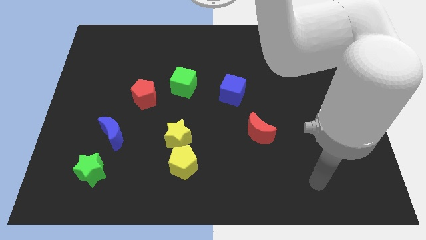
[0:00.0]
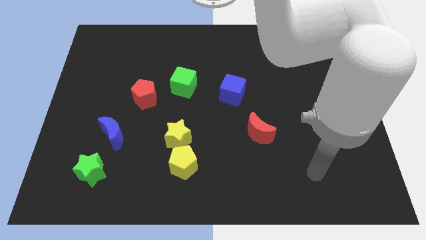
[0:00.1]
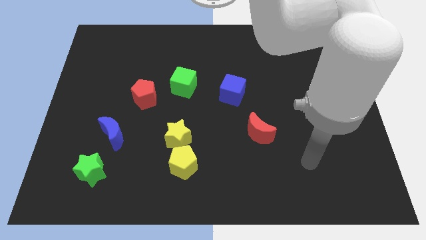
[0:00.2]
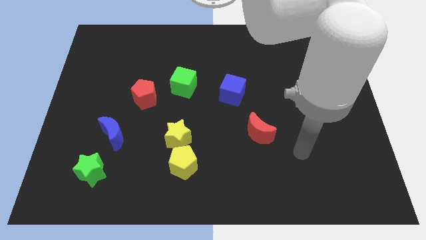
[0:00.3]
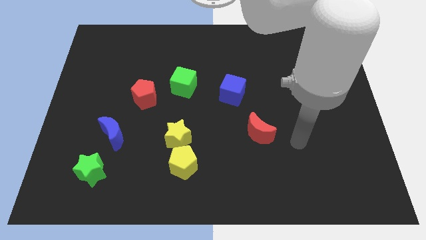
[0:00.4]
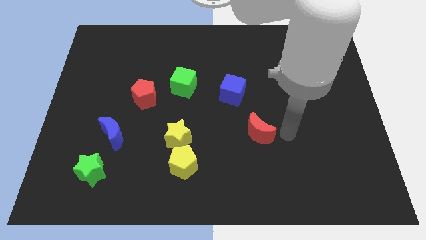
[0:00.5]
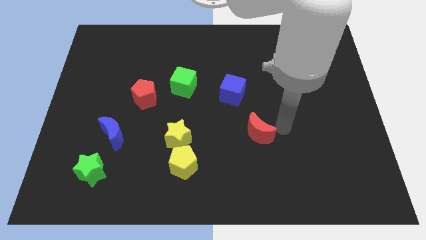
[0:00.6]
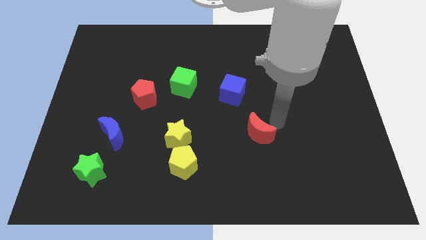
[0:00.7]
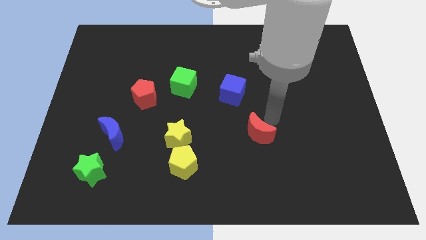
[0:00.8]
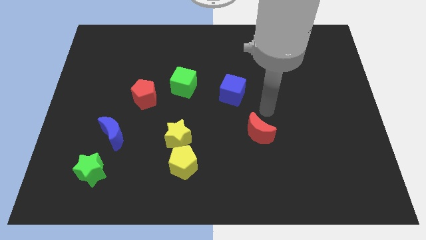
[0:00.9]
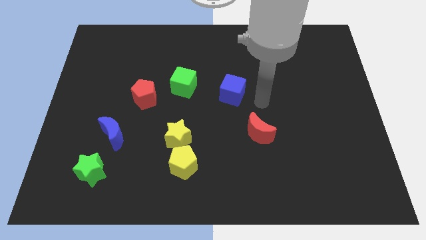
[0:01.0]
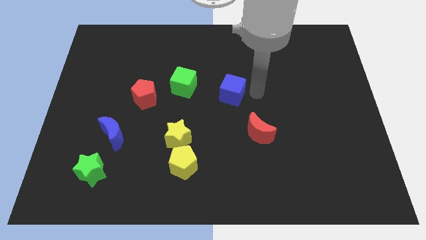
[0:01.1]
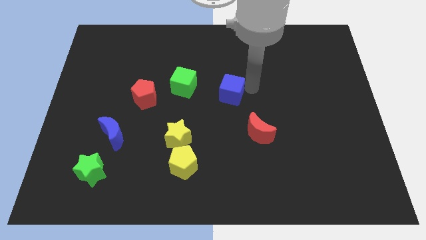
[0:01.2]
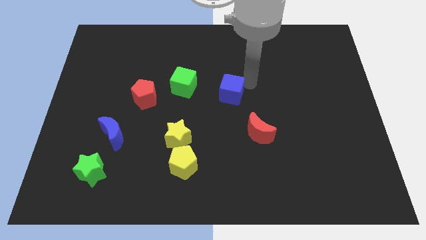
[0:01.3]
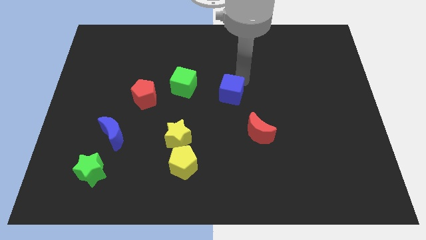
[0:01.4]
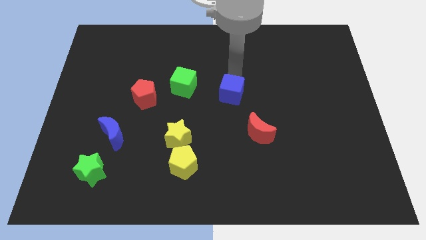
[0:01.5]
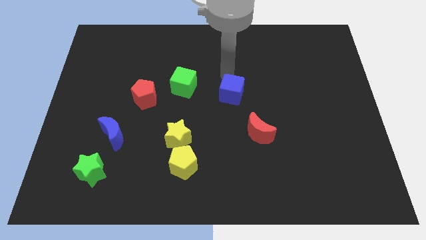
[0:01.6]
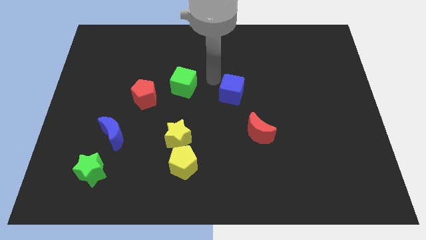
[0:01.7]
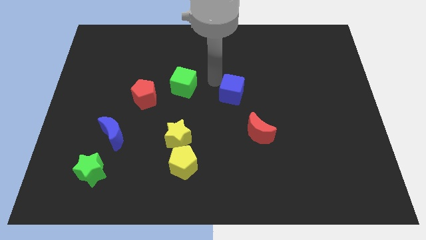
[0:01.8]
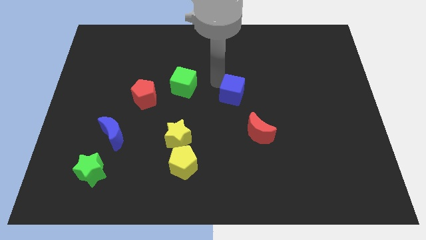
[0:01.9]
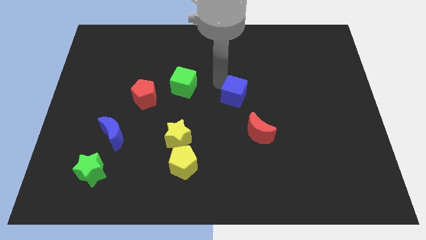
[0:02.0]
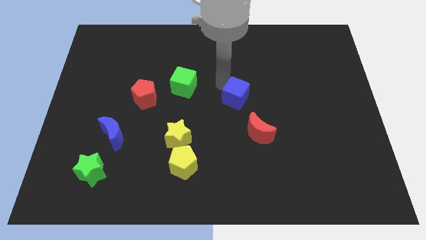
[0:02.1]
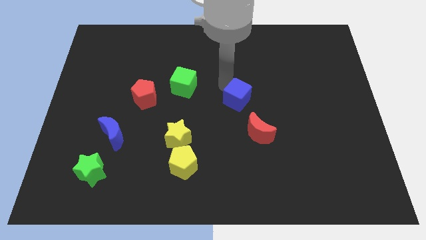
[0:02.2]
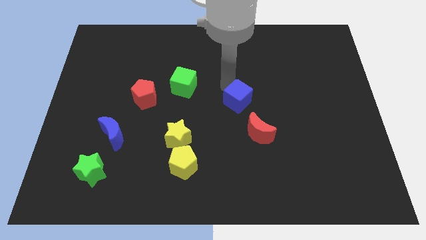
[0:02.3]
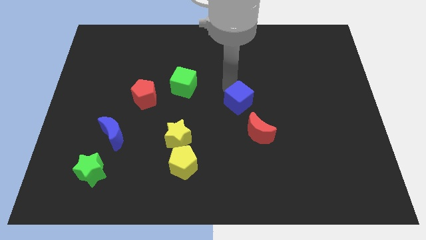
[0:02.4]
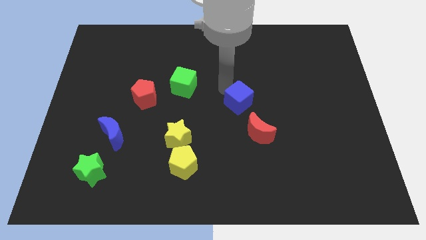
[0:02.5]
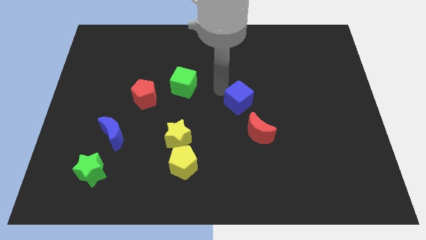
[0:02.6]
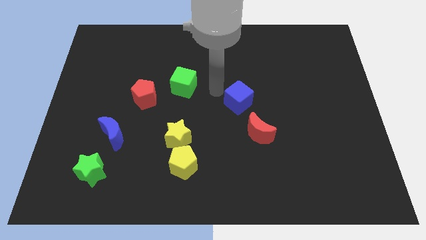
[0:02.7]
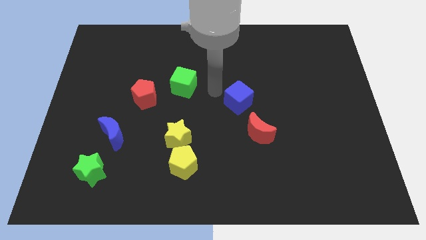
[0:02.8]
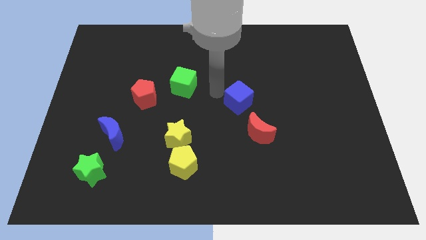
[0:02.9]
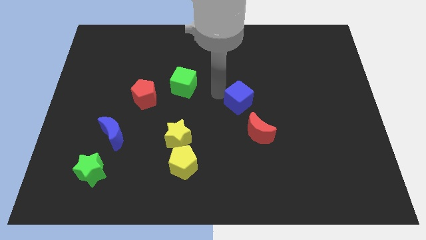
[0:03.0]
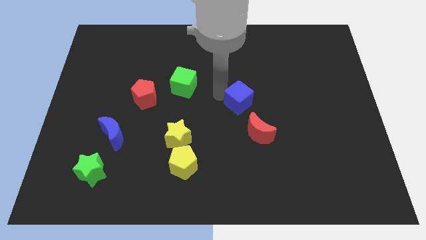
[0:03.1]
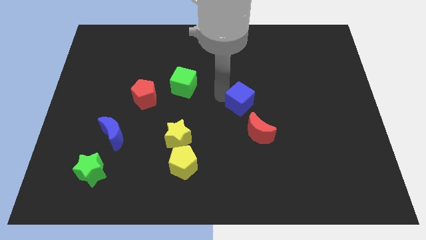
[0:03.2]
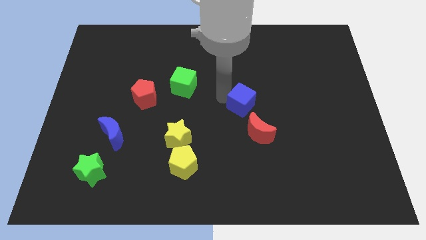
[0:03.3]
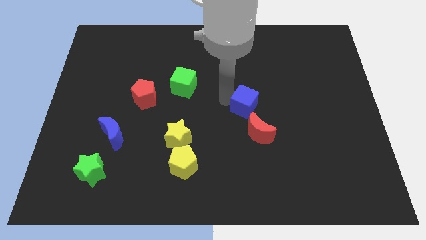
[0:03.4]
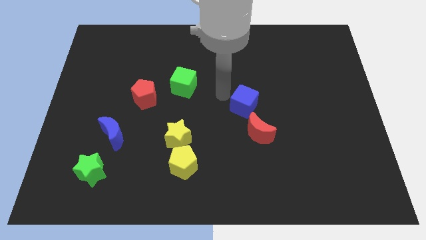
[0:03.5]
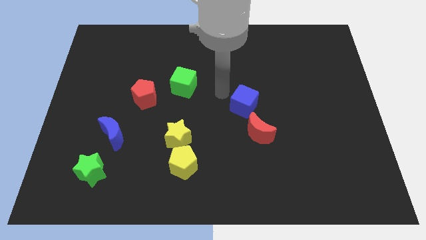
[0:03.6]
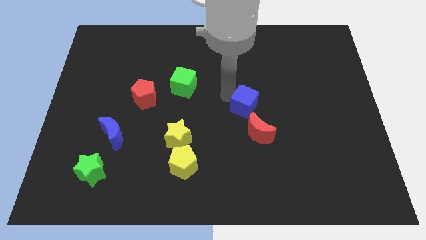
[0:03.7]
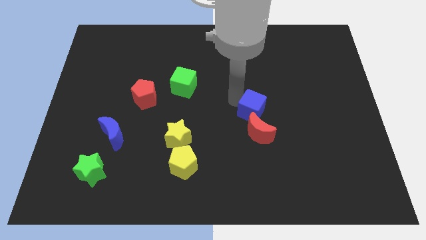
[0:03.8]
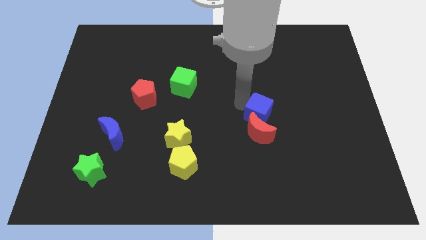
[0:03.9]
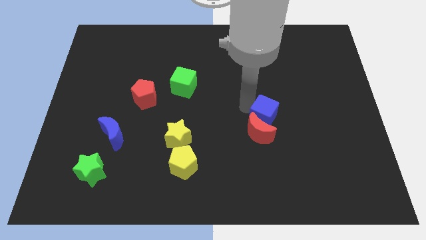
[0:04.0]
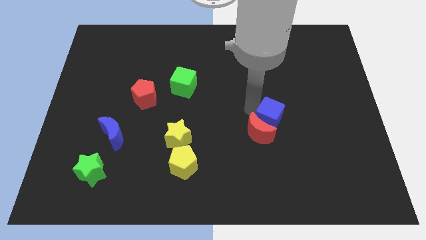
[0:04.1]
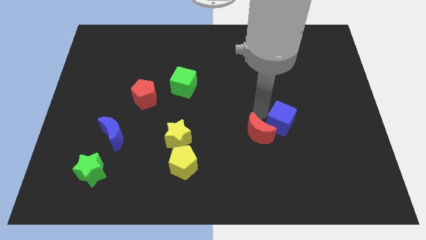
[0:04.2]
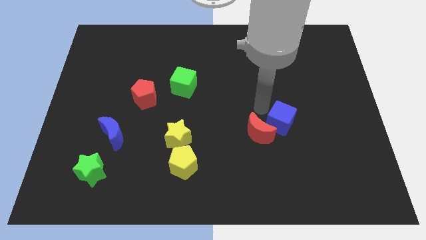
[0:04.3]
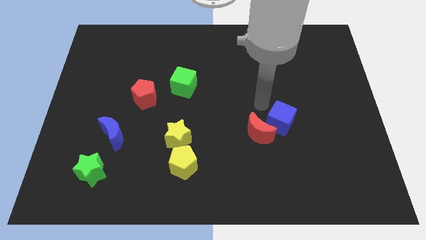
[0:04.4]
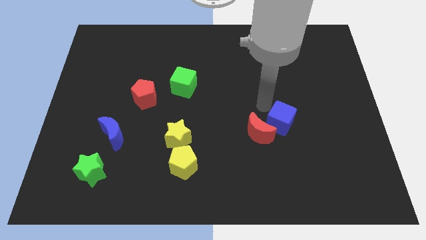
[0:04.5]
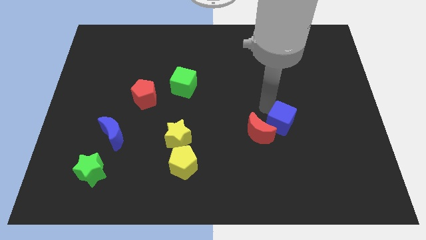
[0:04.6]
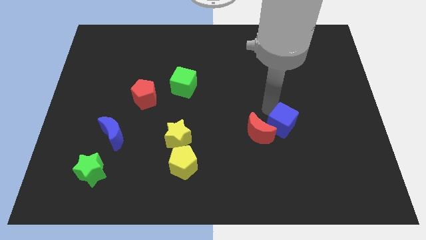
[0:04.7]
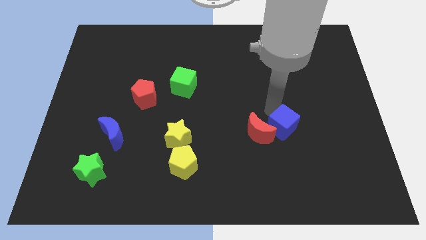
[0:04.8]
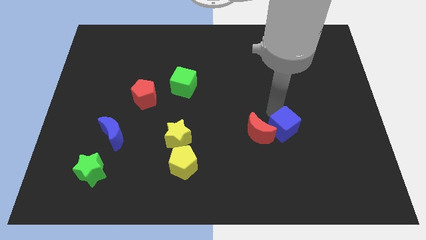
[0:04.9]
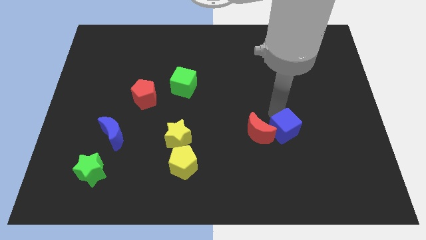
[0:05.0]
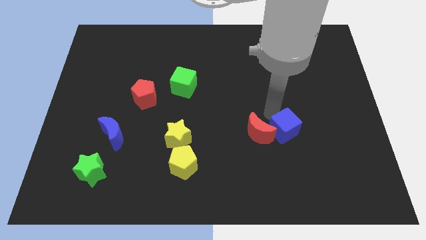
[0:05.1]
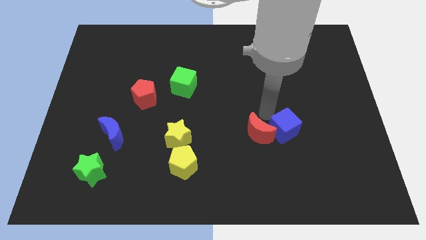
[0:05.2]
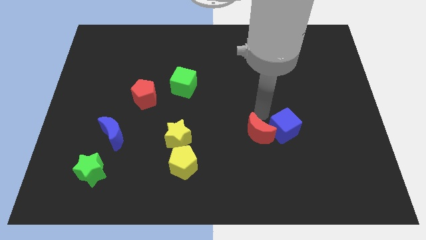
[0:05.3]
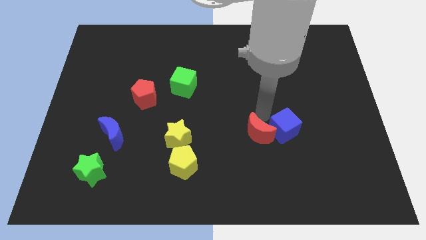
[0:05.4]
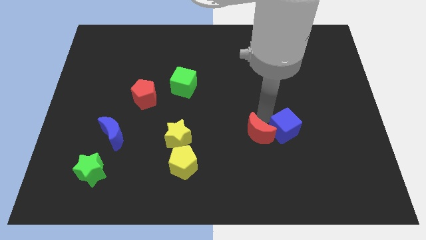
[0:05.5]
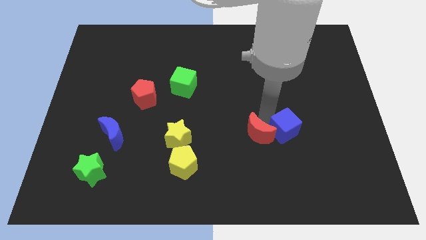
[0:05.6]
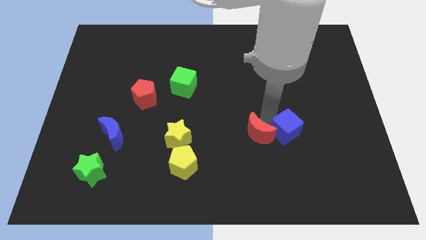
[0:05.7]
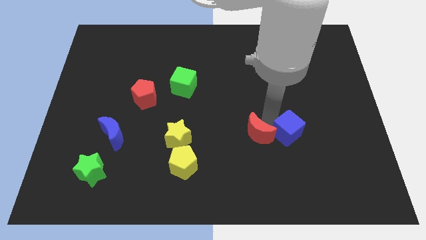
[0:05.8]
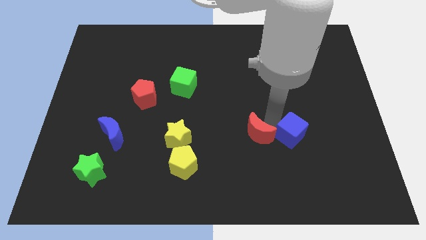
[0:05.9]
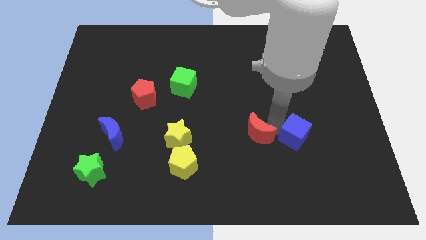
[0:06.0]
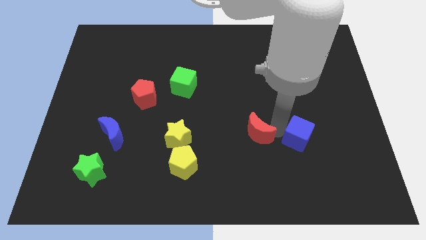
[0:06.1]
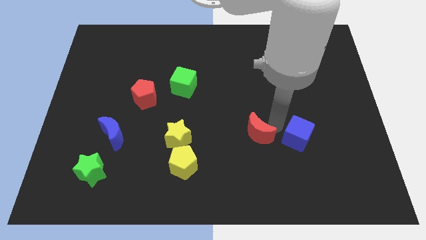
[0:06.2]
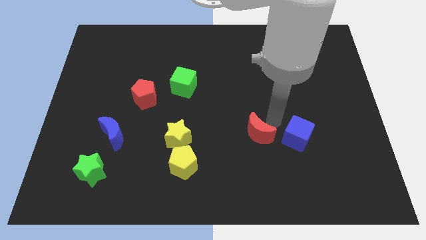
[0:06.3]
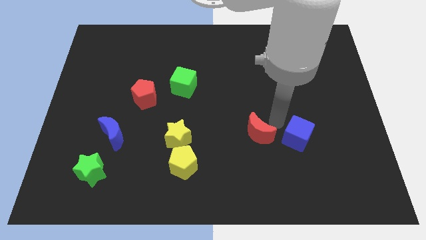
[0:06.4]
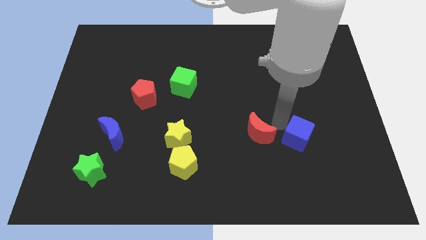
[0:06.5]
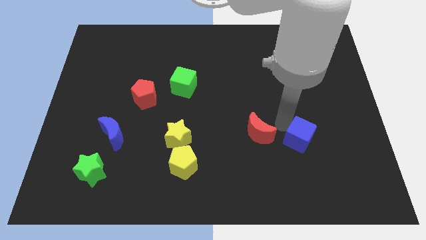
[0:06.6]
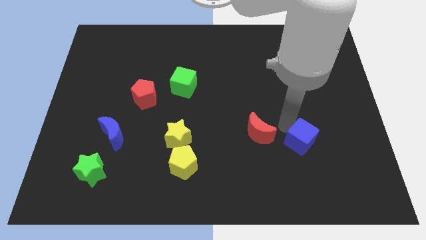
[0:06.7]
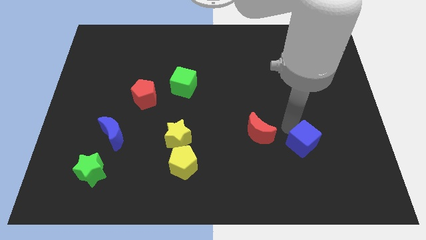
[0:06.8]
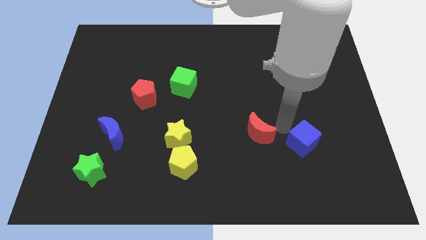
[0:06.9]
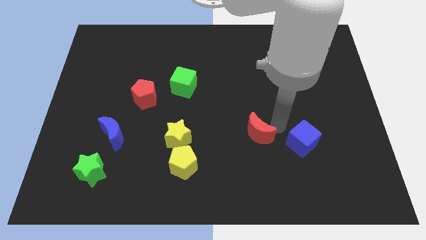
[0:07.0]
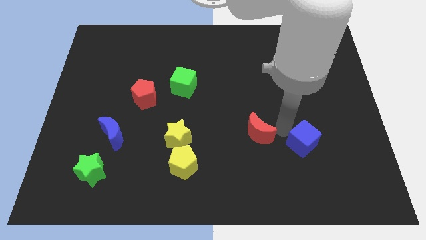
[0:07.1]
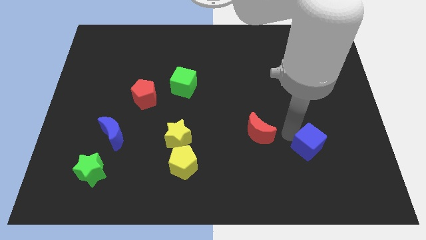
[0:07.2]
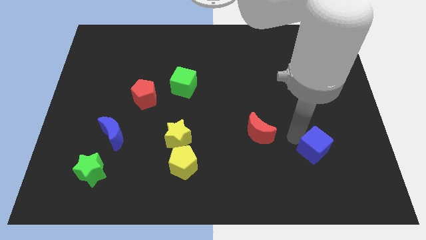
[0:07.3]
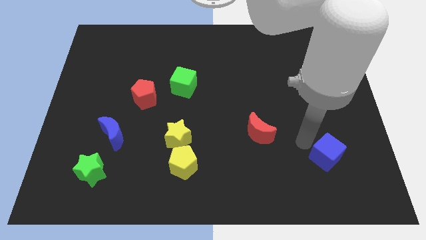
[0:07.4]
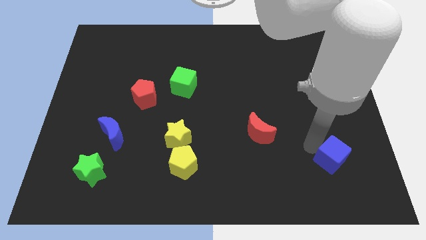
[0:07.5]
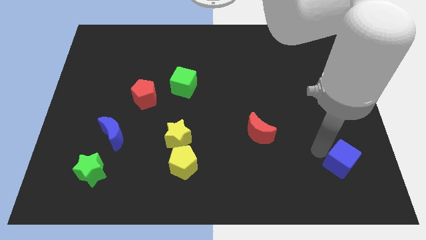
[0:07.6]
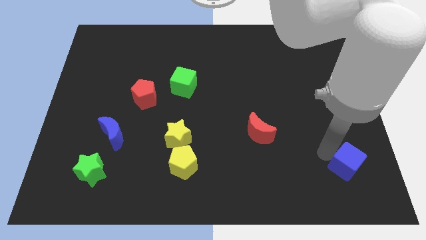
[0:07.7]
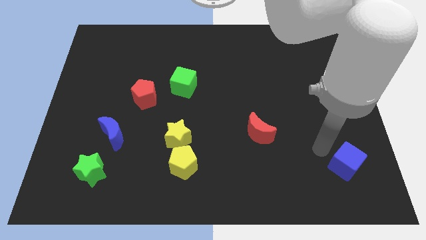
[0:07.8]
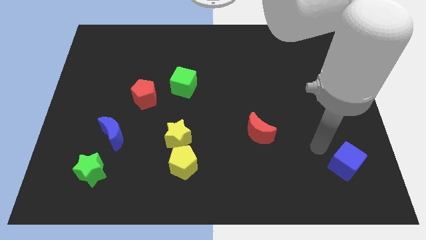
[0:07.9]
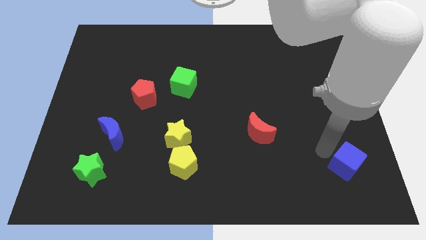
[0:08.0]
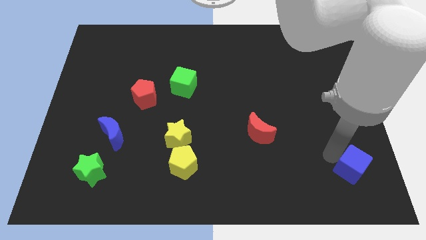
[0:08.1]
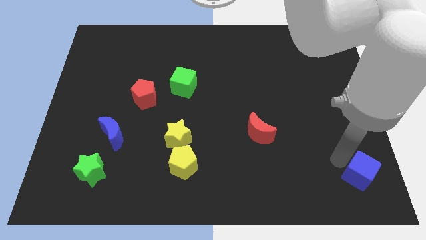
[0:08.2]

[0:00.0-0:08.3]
move the blue cube to the bottom right
